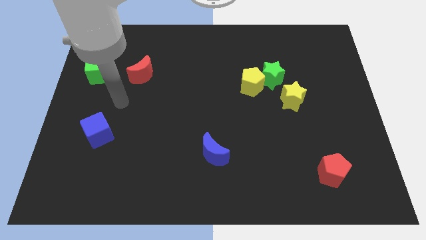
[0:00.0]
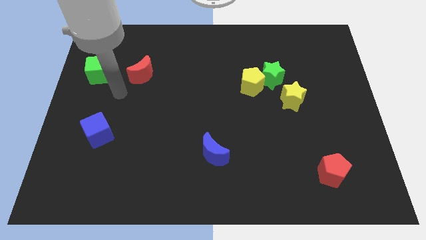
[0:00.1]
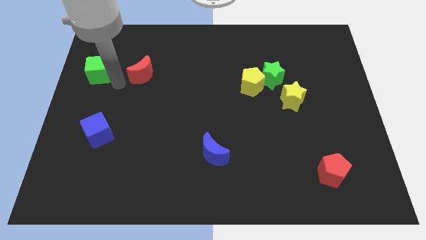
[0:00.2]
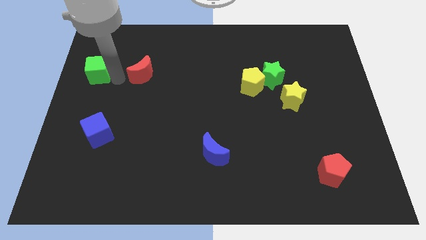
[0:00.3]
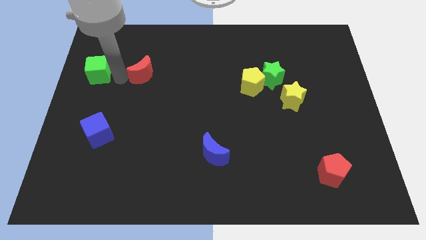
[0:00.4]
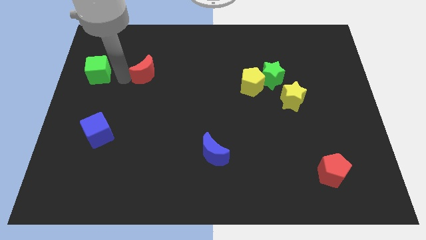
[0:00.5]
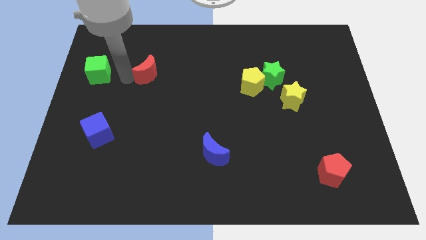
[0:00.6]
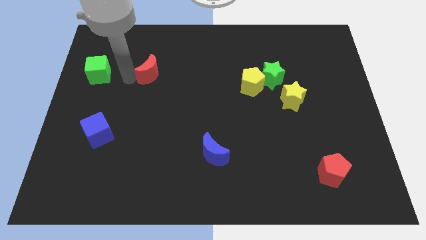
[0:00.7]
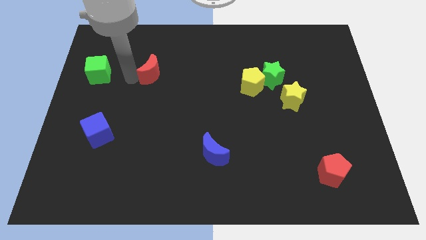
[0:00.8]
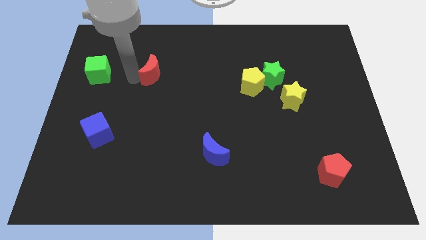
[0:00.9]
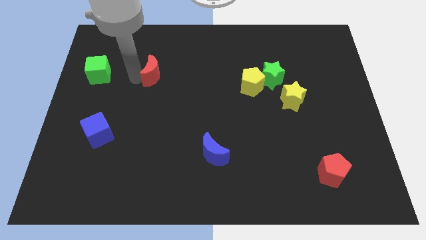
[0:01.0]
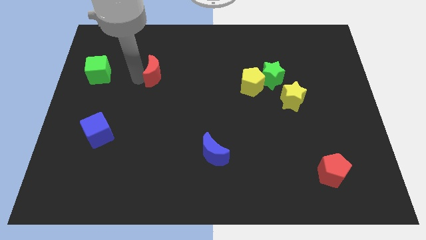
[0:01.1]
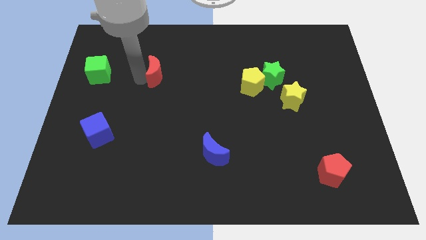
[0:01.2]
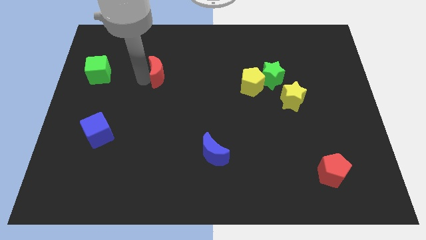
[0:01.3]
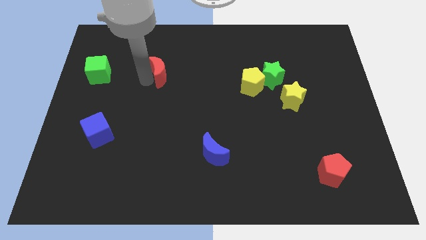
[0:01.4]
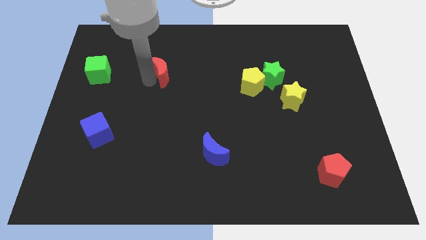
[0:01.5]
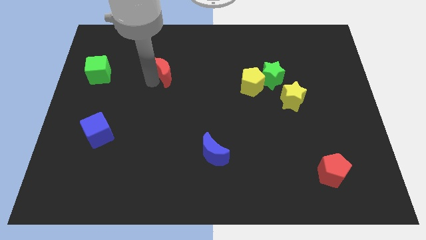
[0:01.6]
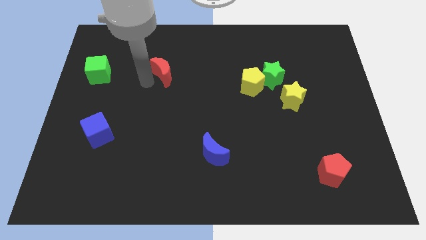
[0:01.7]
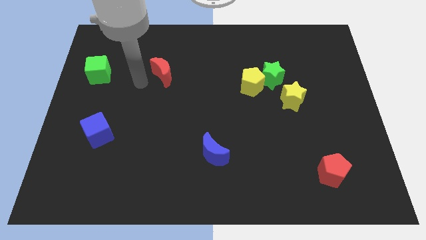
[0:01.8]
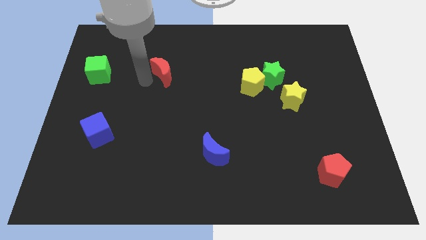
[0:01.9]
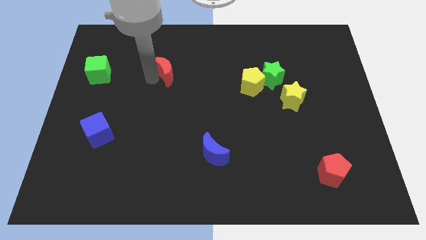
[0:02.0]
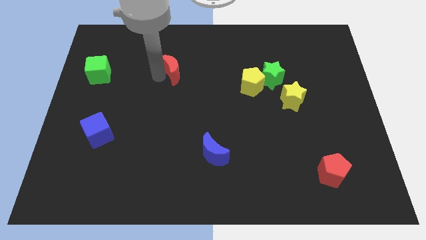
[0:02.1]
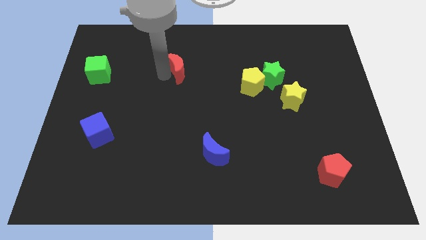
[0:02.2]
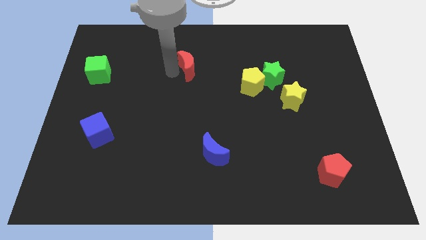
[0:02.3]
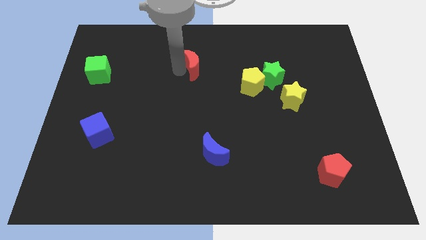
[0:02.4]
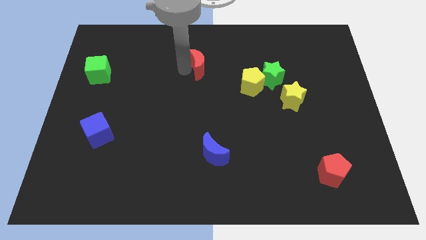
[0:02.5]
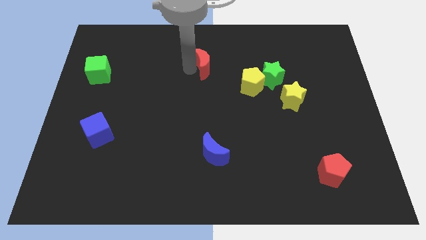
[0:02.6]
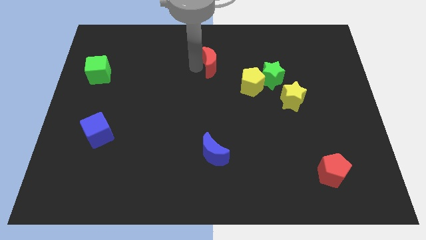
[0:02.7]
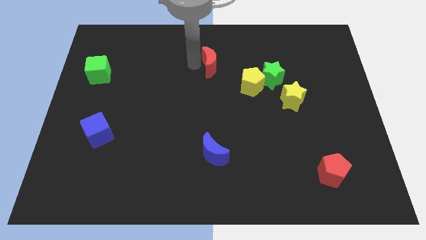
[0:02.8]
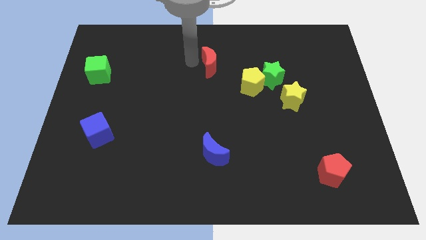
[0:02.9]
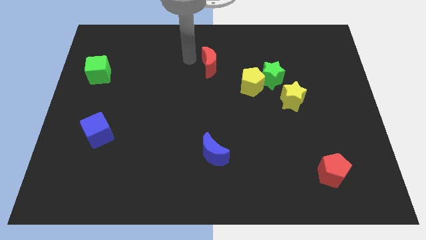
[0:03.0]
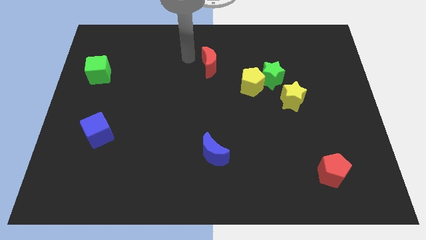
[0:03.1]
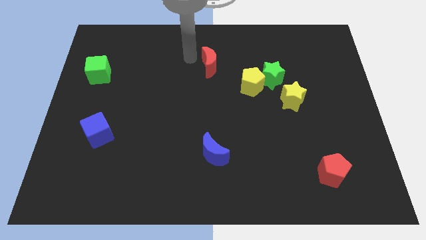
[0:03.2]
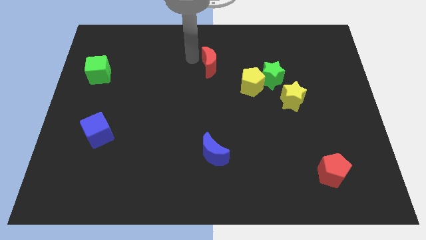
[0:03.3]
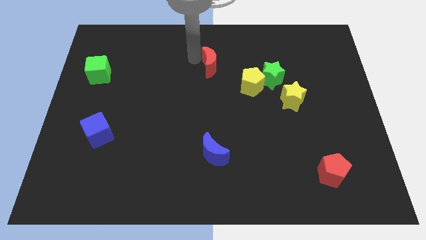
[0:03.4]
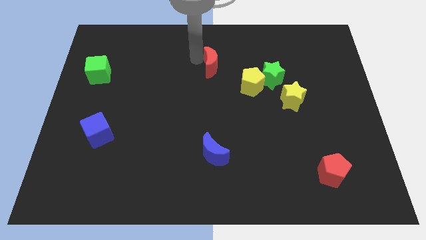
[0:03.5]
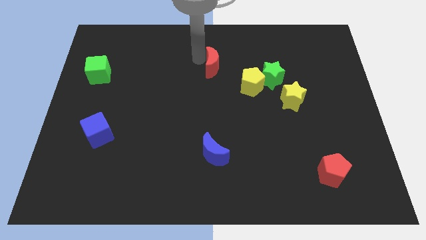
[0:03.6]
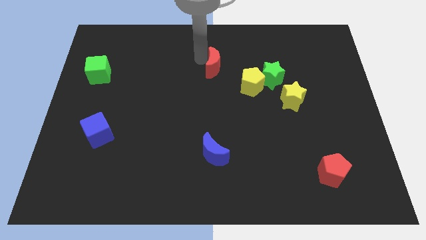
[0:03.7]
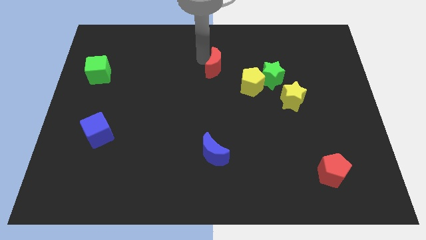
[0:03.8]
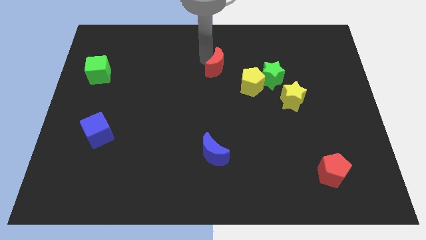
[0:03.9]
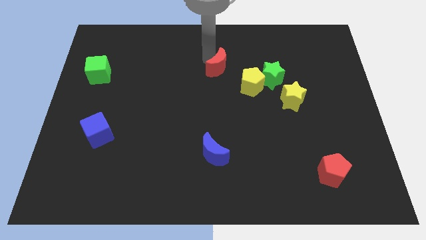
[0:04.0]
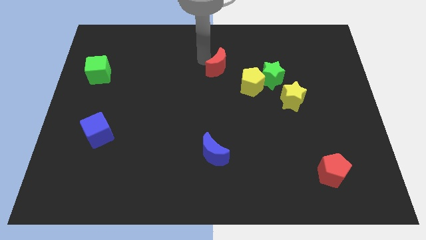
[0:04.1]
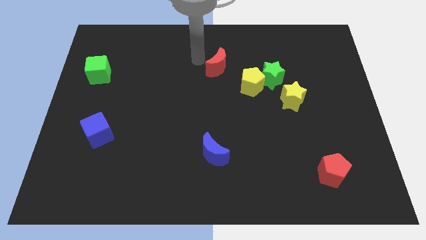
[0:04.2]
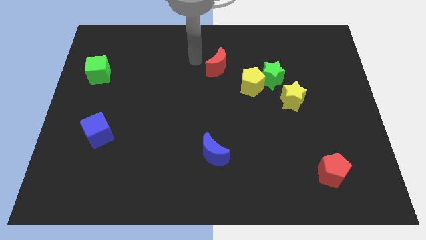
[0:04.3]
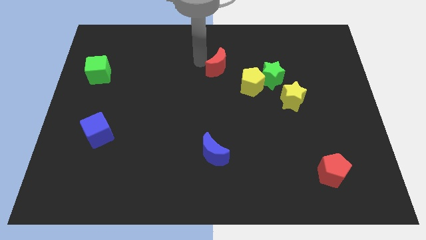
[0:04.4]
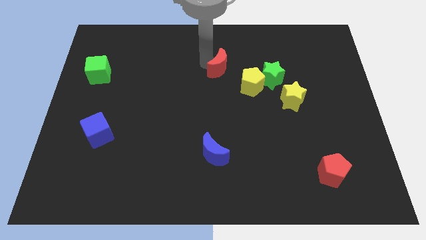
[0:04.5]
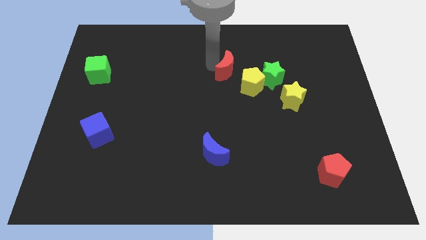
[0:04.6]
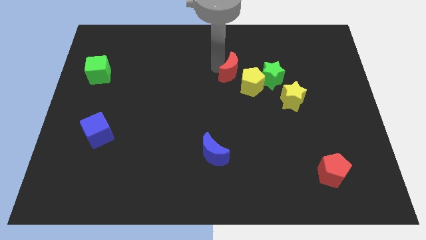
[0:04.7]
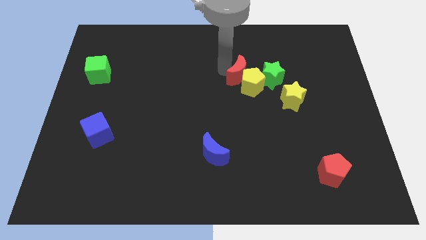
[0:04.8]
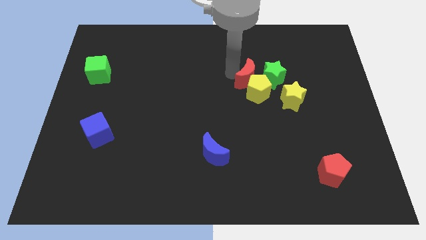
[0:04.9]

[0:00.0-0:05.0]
put the red moon next to the green star

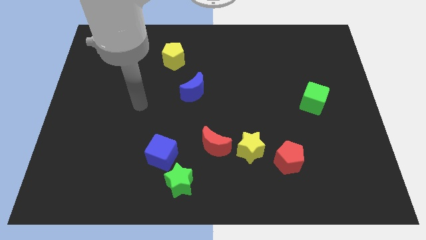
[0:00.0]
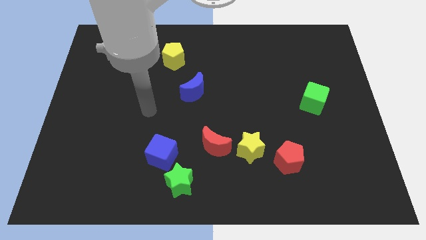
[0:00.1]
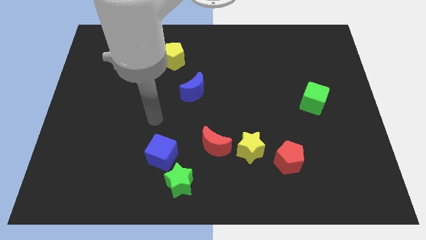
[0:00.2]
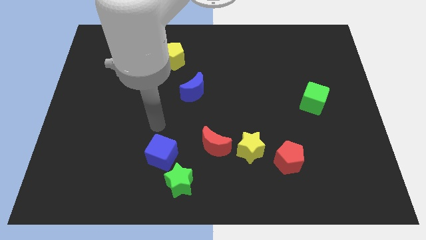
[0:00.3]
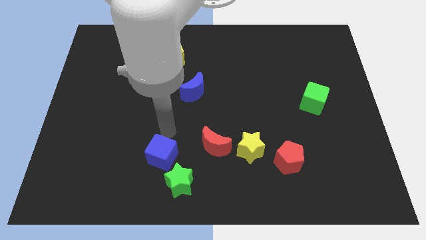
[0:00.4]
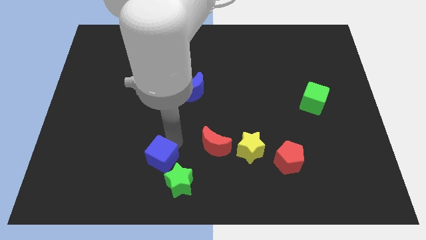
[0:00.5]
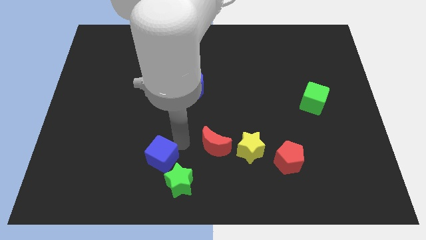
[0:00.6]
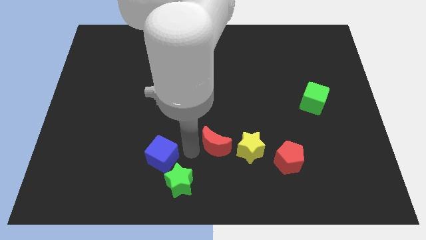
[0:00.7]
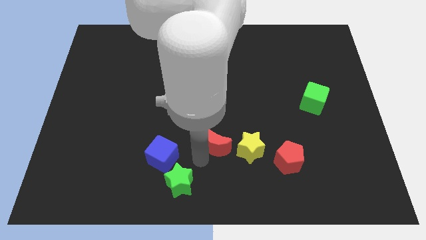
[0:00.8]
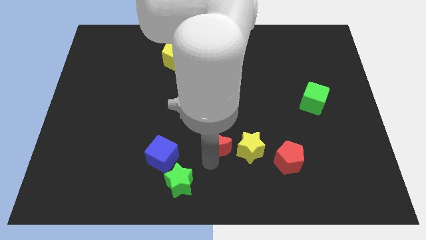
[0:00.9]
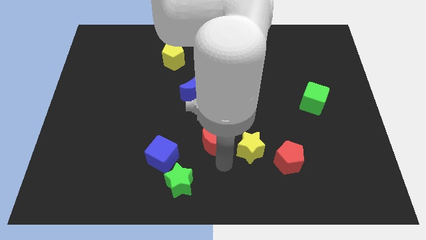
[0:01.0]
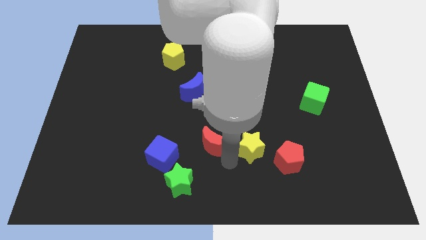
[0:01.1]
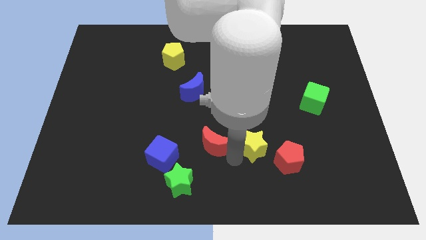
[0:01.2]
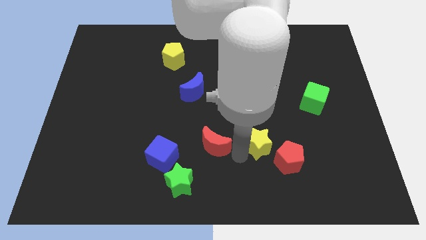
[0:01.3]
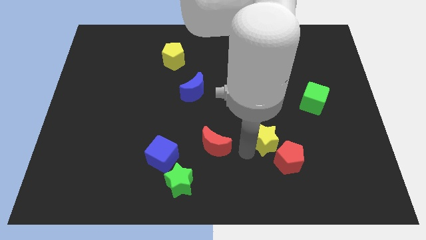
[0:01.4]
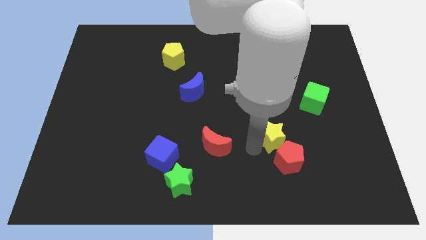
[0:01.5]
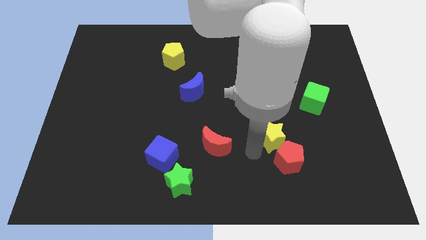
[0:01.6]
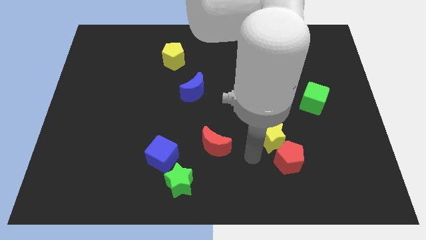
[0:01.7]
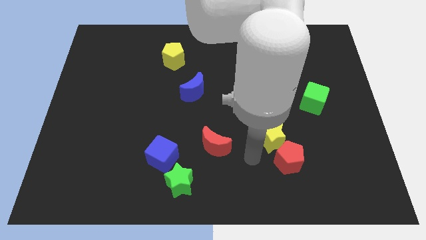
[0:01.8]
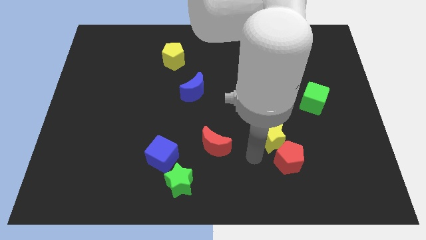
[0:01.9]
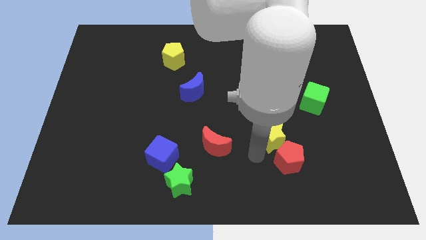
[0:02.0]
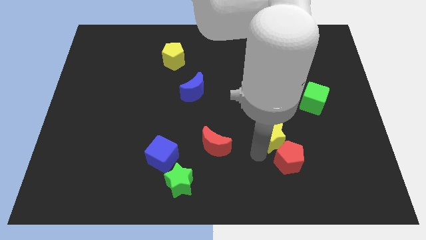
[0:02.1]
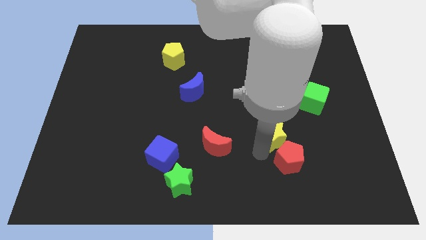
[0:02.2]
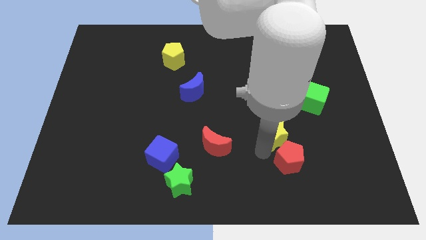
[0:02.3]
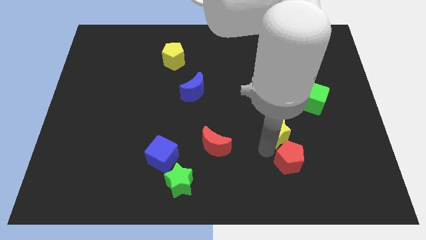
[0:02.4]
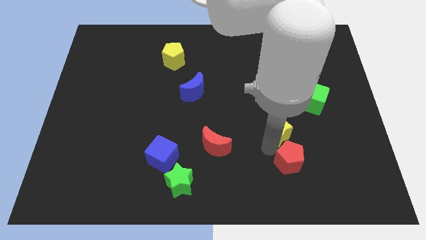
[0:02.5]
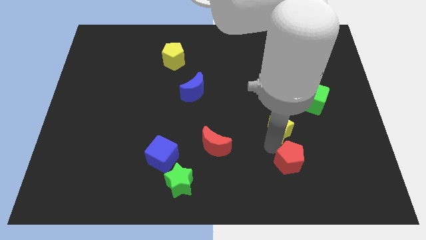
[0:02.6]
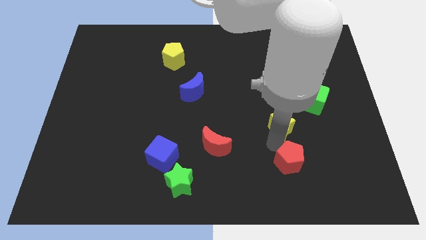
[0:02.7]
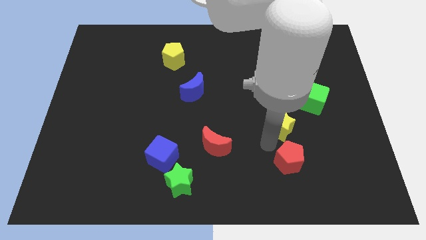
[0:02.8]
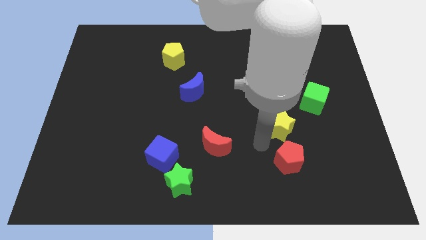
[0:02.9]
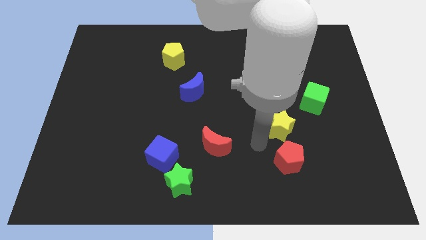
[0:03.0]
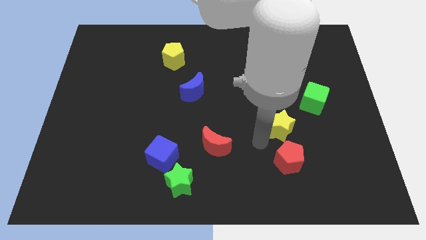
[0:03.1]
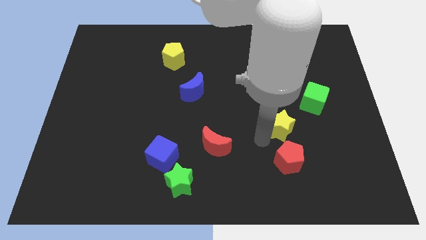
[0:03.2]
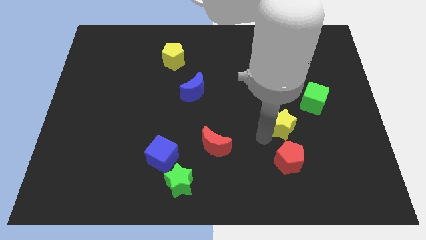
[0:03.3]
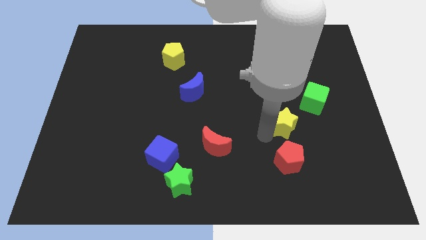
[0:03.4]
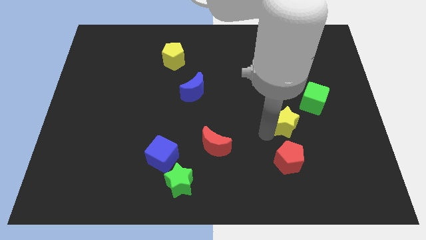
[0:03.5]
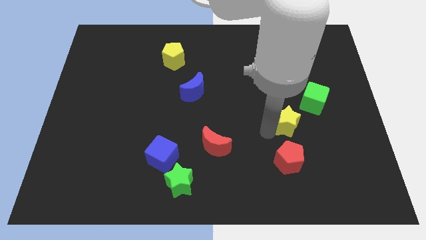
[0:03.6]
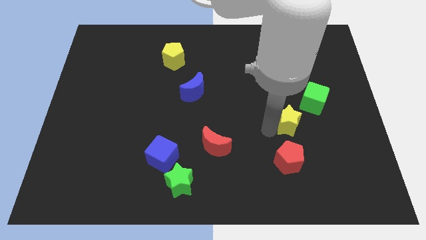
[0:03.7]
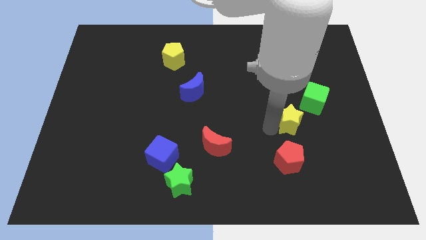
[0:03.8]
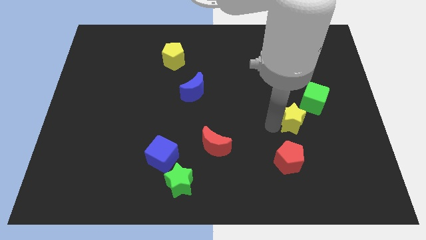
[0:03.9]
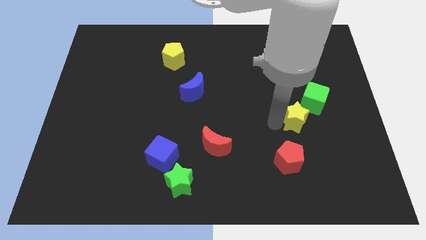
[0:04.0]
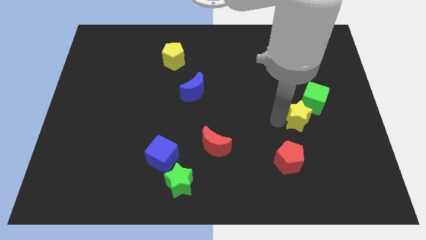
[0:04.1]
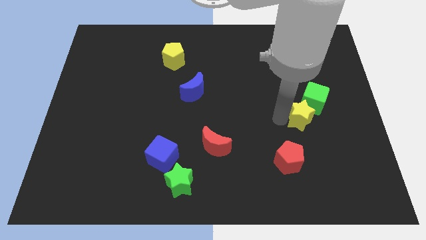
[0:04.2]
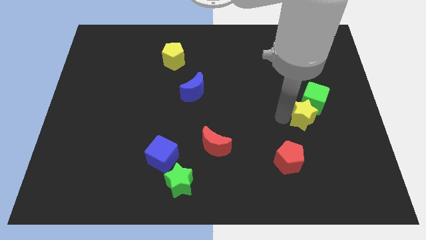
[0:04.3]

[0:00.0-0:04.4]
slide the yellow star next to the green cube
